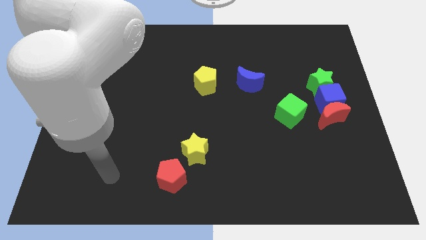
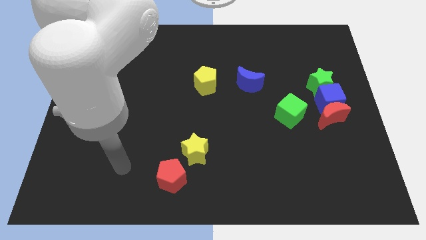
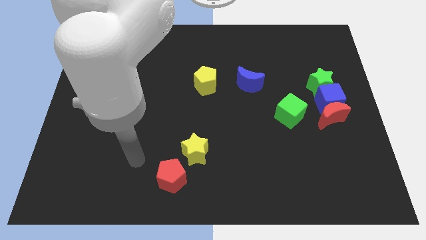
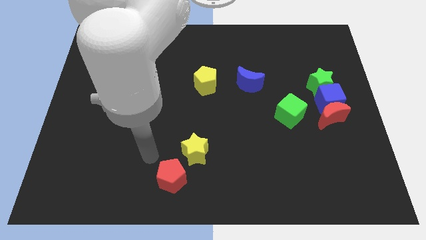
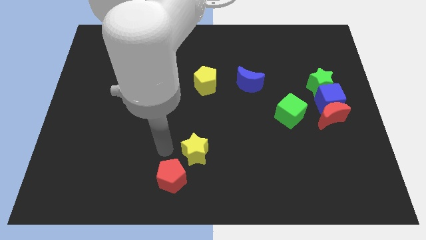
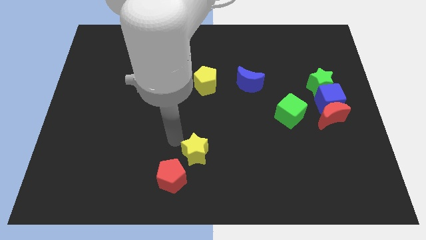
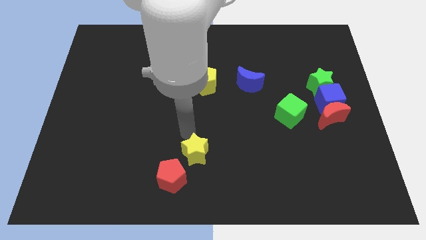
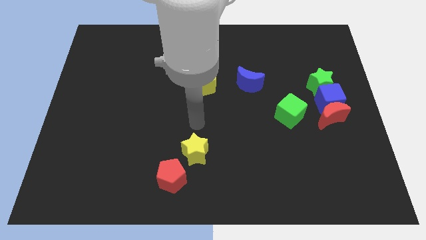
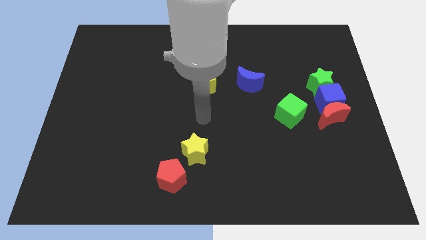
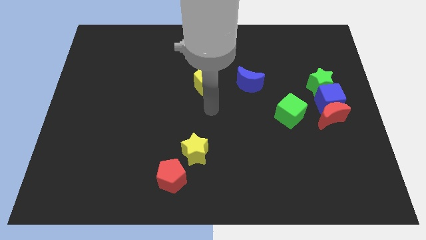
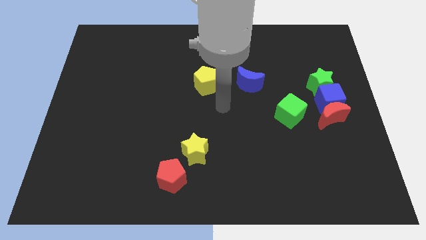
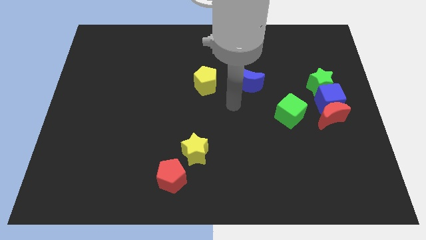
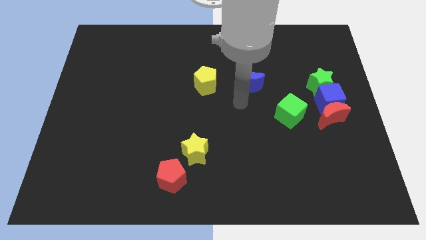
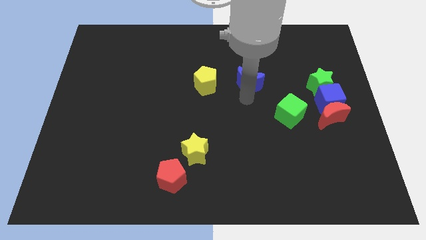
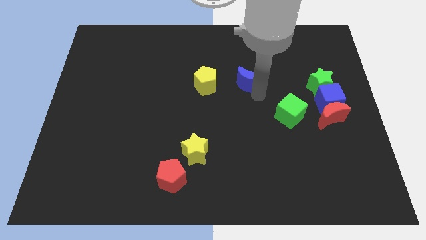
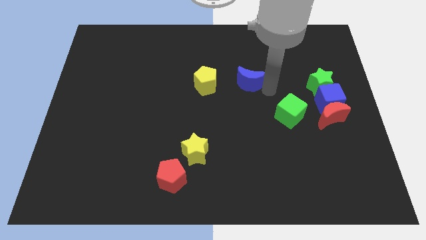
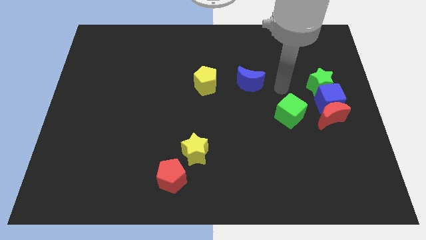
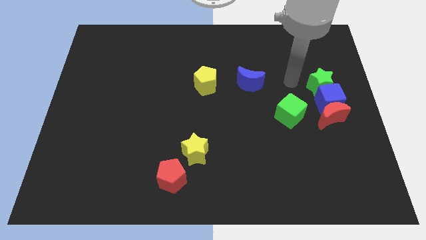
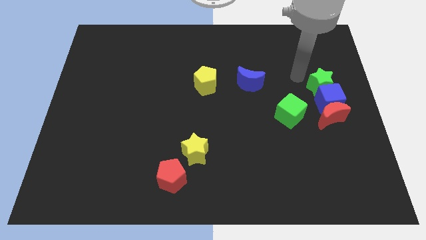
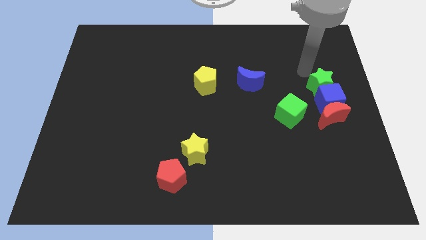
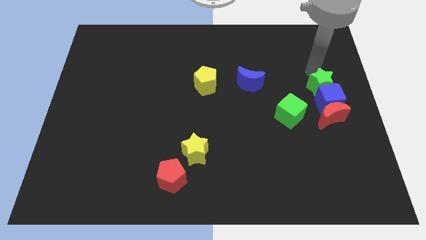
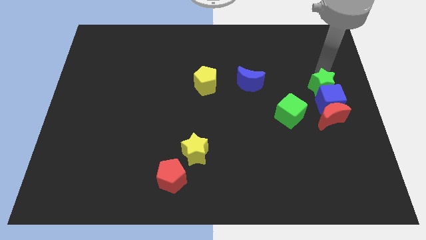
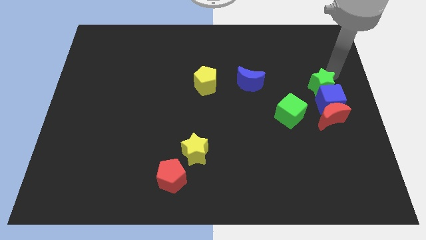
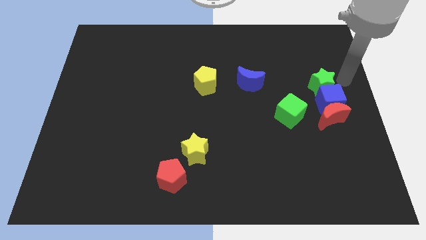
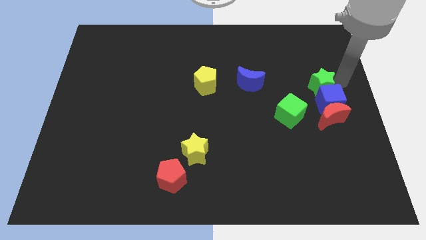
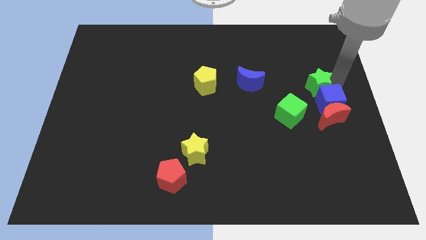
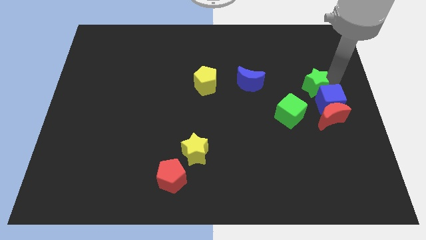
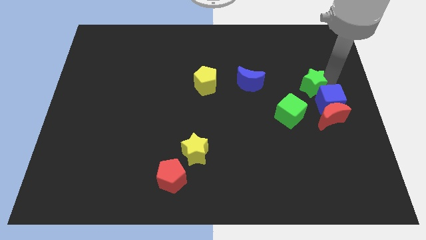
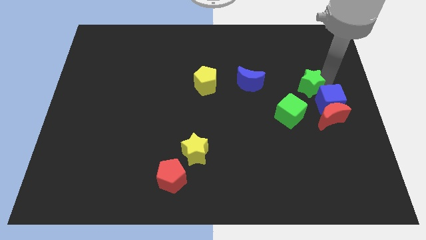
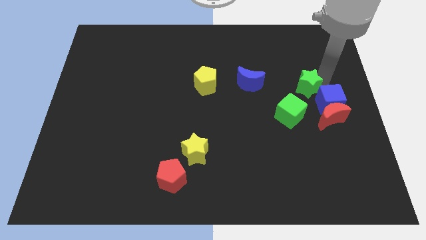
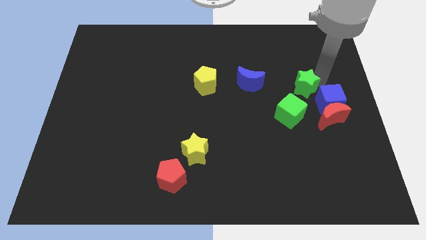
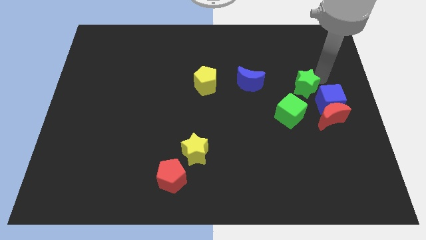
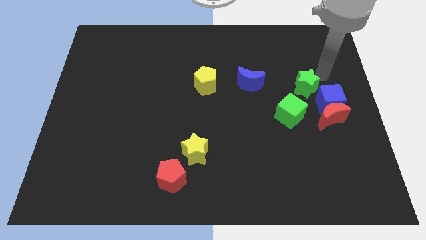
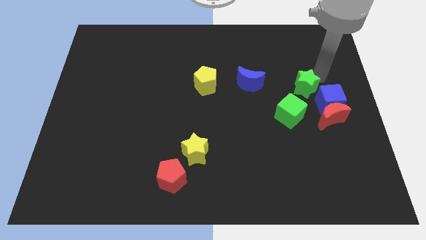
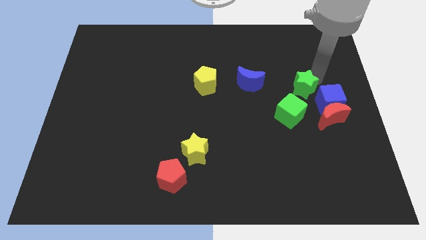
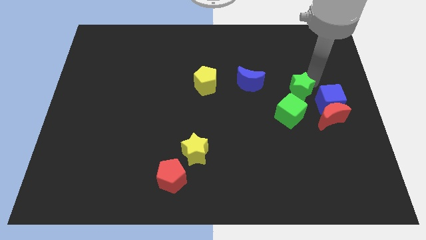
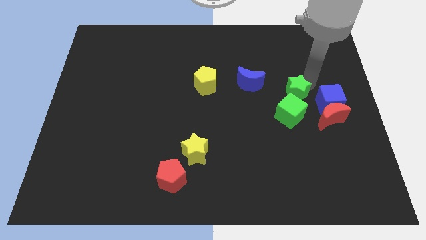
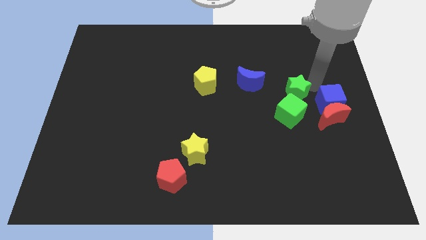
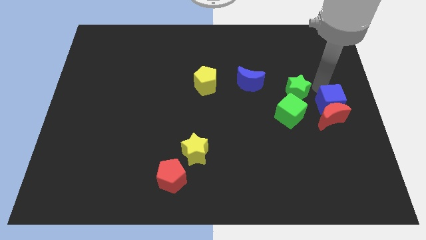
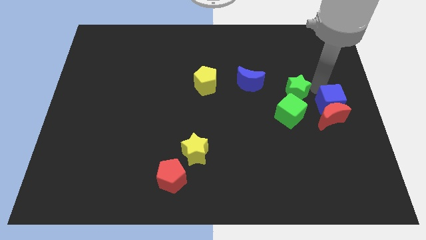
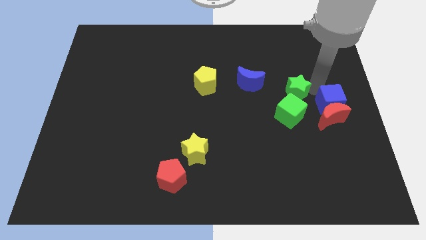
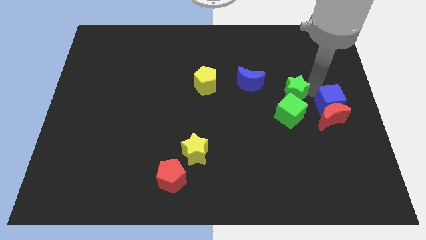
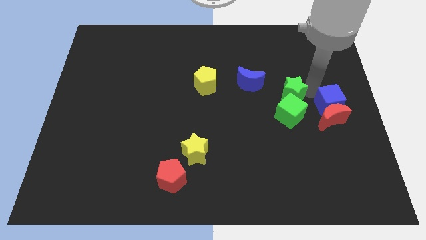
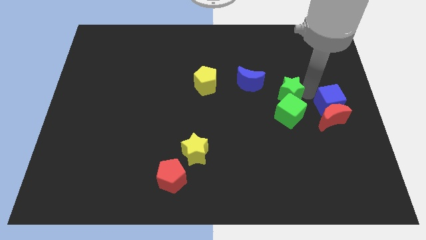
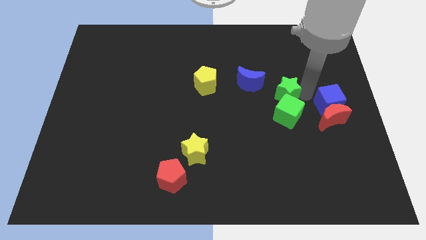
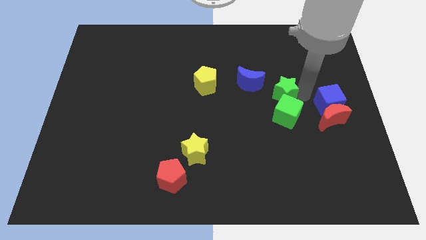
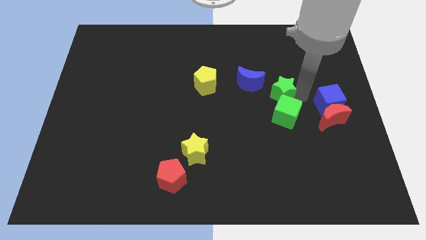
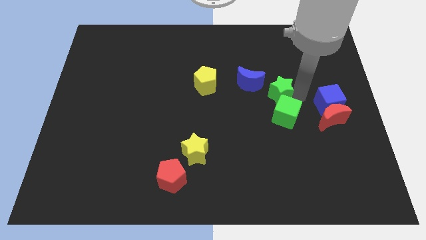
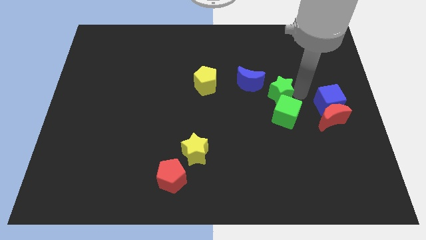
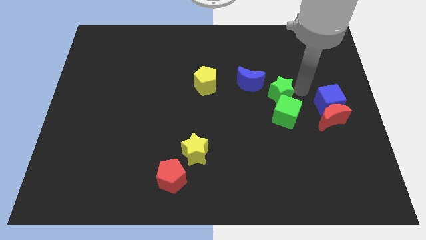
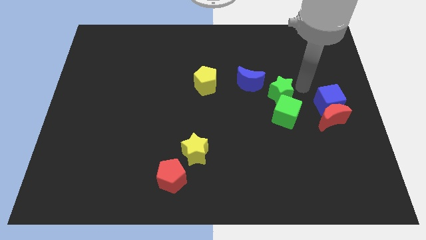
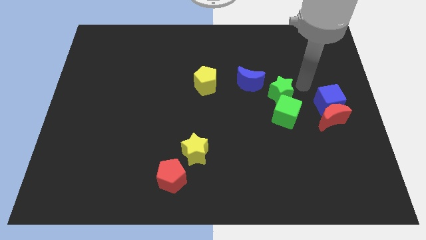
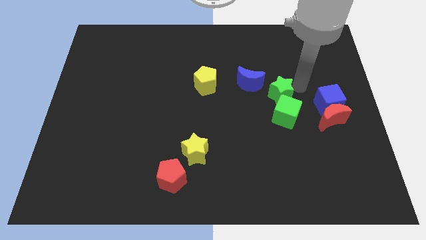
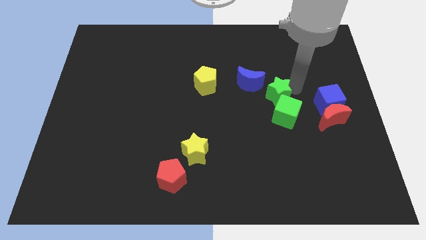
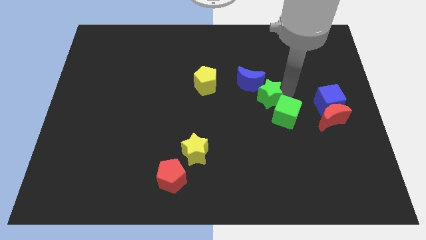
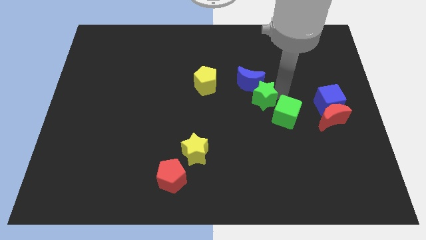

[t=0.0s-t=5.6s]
slide the green star to the center of the board

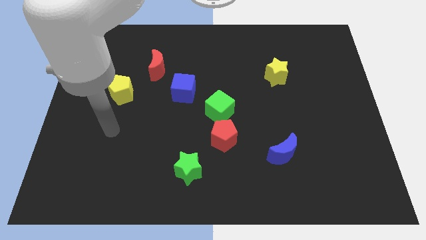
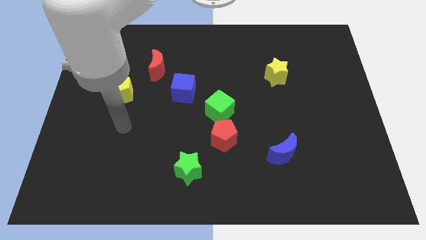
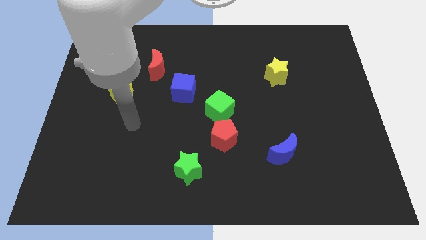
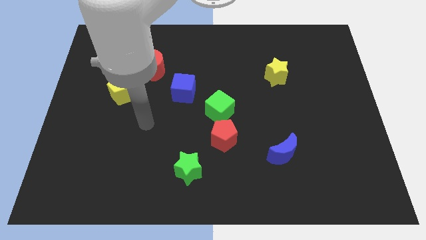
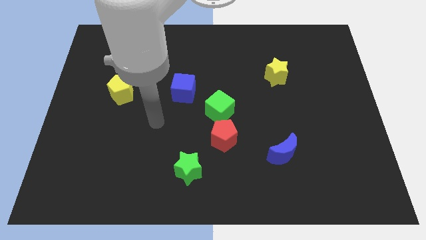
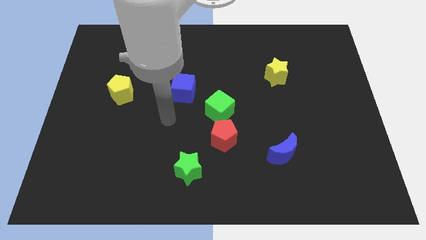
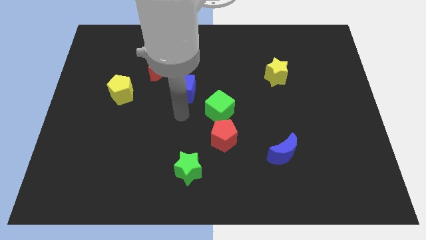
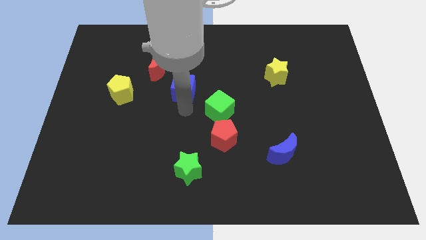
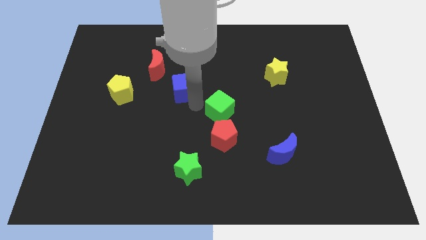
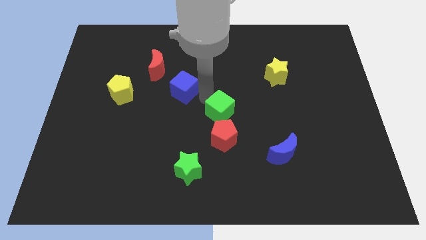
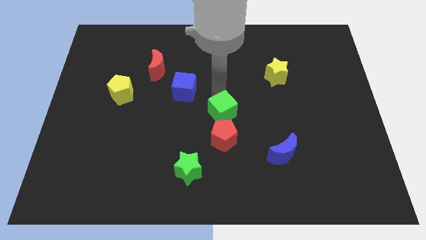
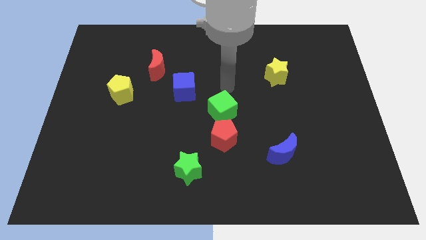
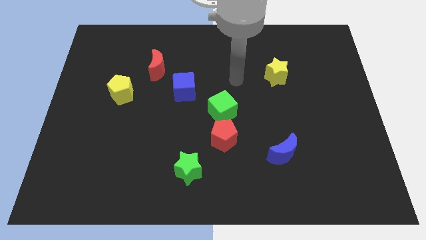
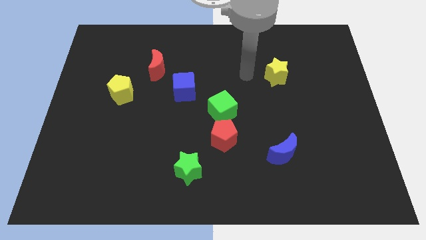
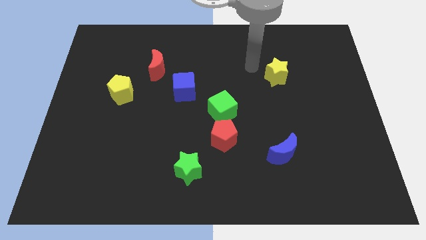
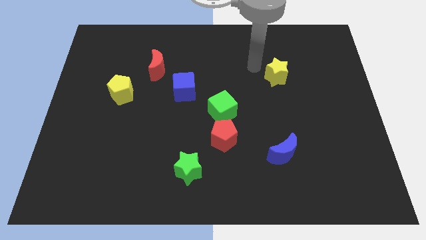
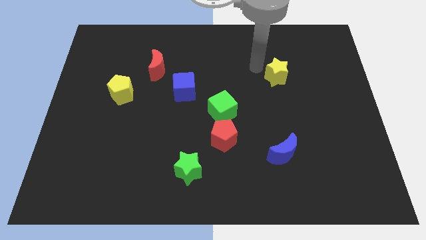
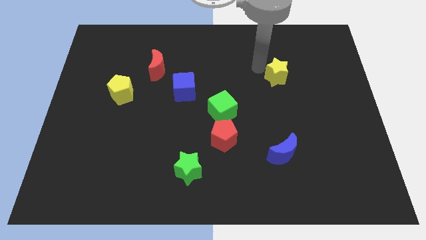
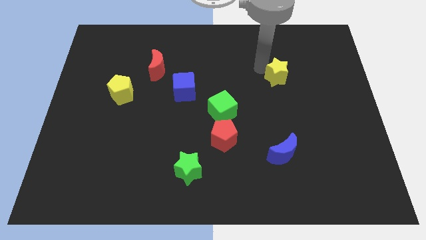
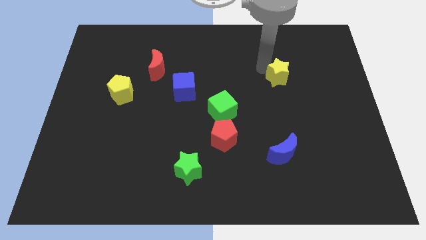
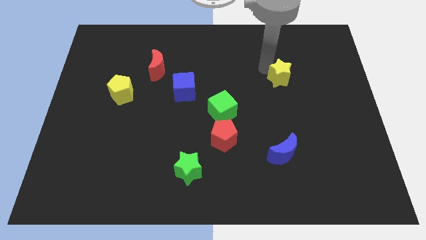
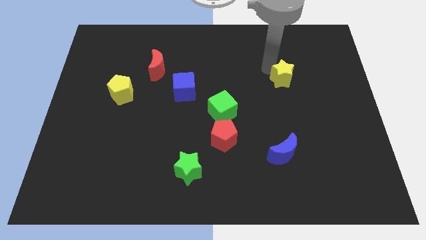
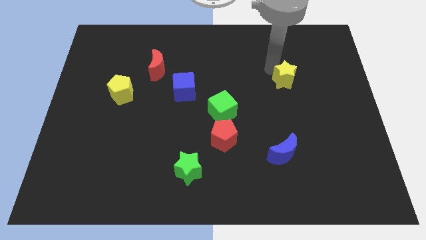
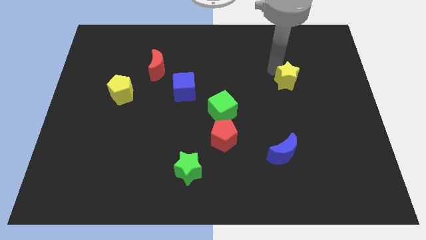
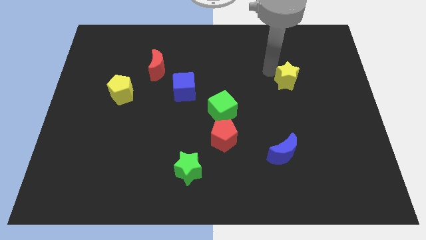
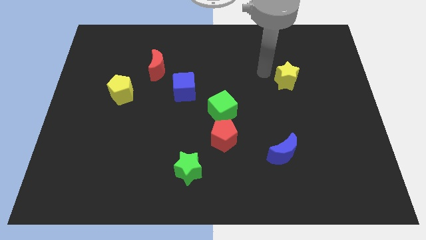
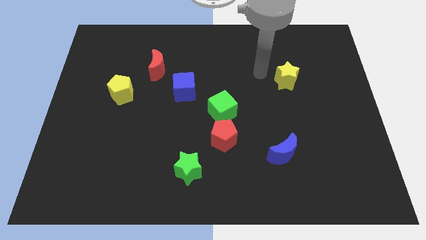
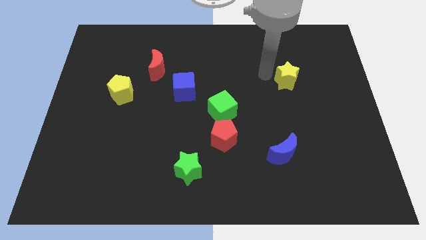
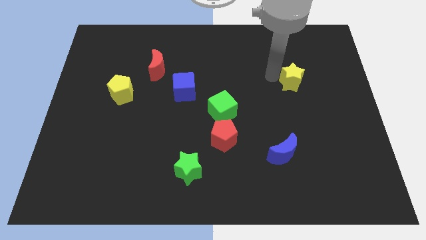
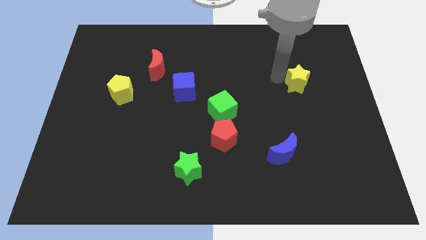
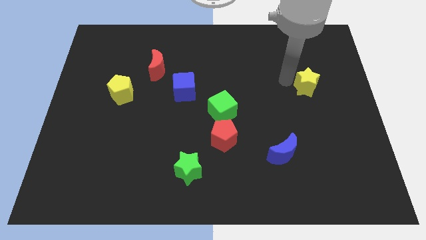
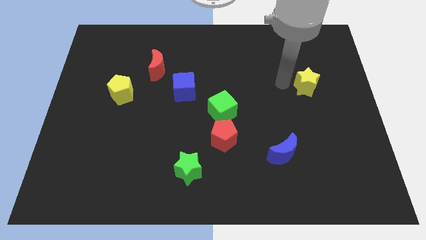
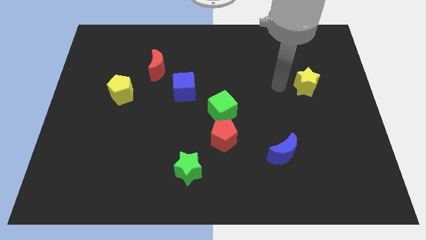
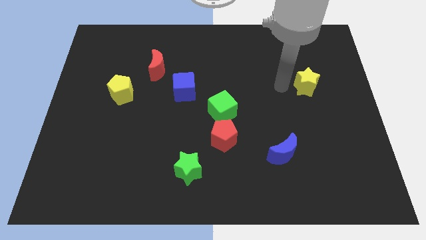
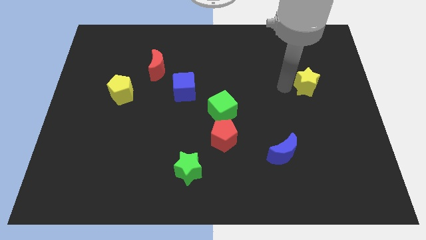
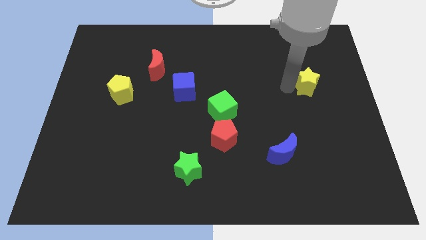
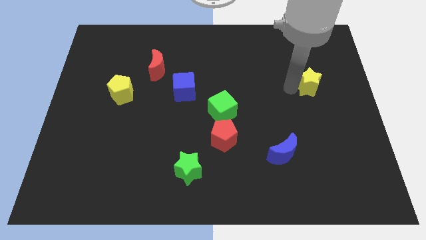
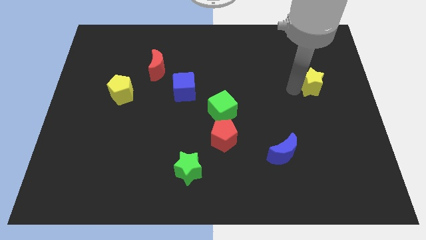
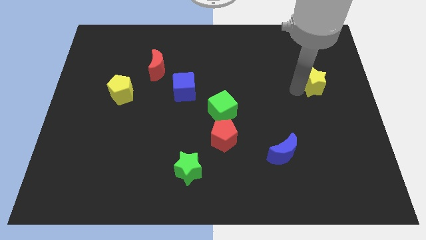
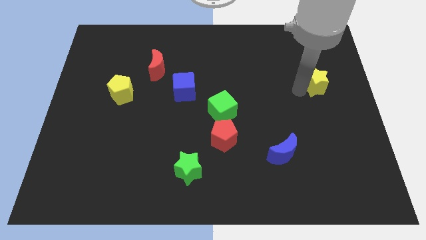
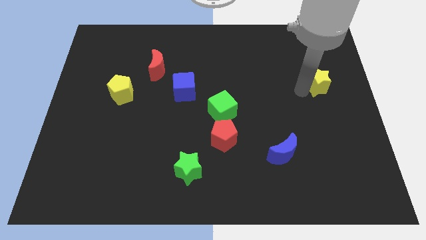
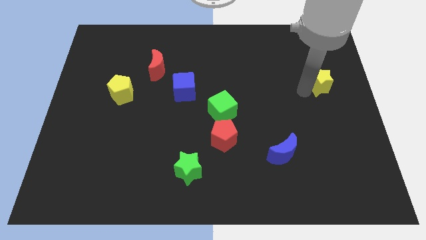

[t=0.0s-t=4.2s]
move the yellow star to the center right
